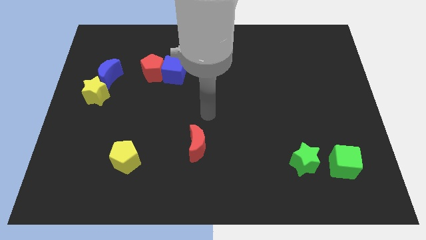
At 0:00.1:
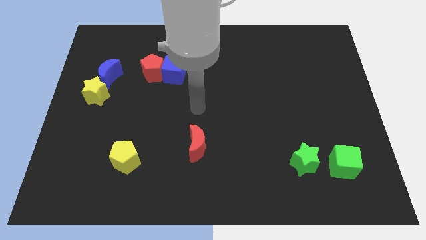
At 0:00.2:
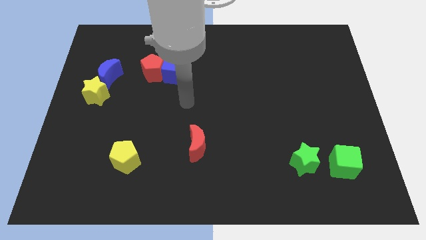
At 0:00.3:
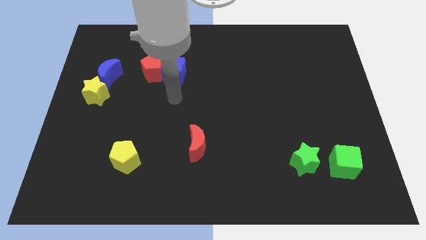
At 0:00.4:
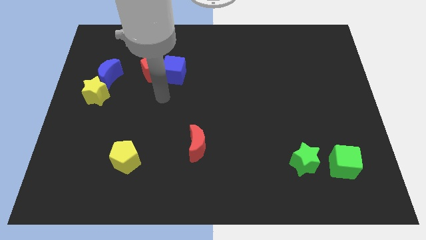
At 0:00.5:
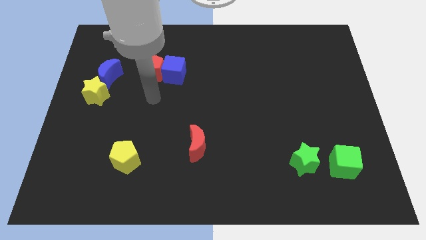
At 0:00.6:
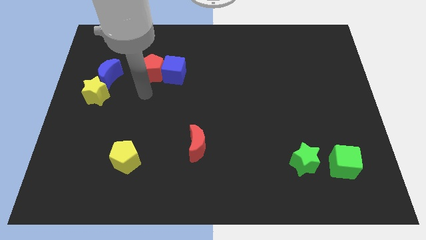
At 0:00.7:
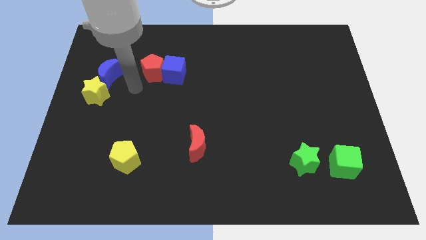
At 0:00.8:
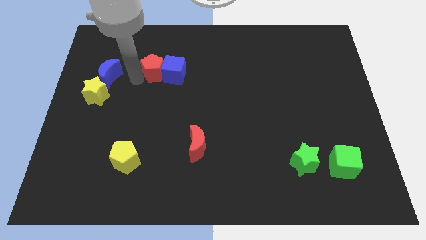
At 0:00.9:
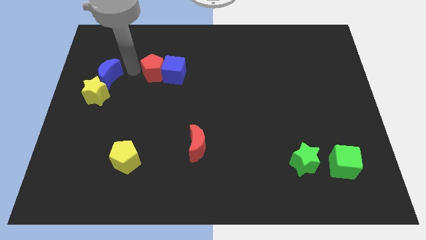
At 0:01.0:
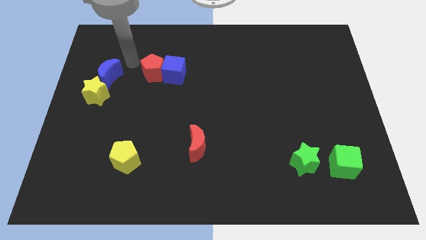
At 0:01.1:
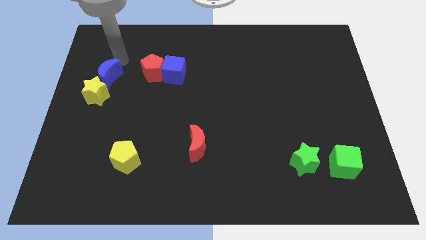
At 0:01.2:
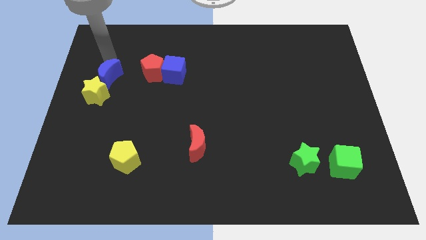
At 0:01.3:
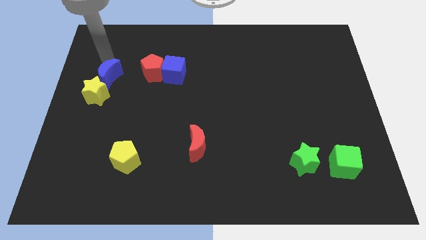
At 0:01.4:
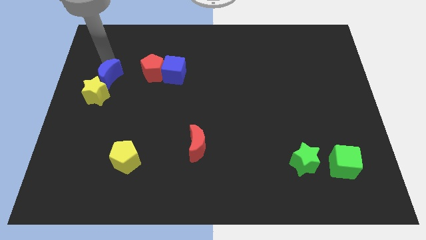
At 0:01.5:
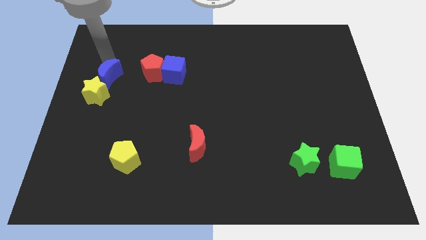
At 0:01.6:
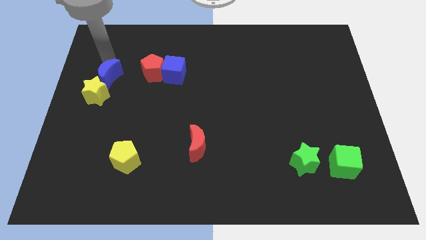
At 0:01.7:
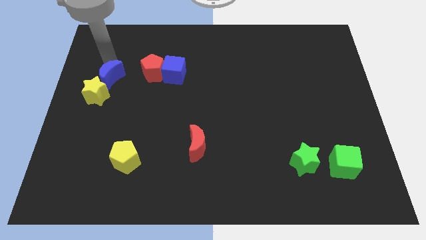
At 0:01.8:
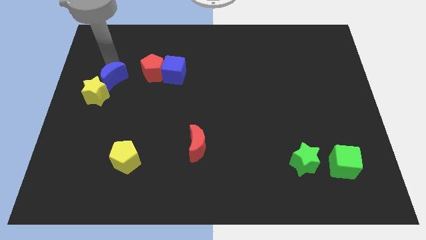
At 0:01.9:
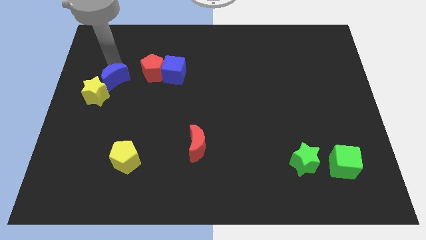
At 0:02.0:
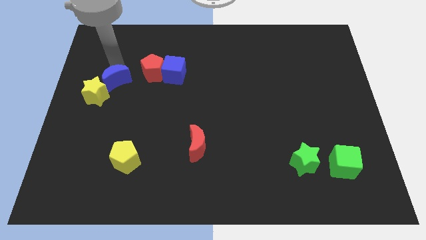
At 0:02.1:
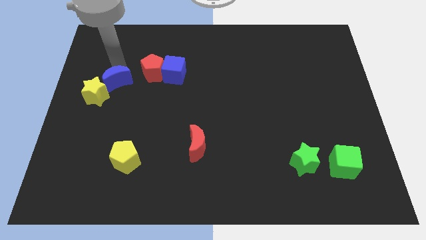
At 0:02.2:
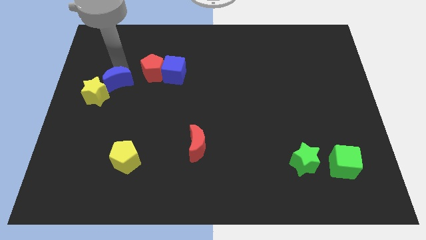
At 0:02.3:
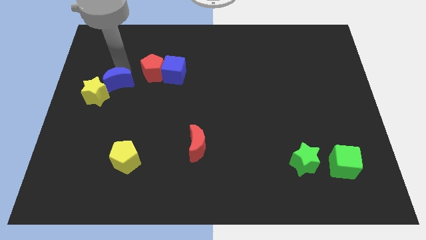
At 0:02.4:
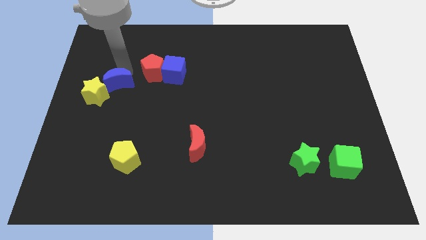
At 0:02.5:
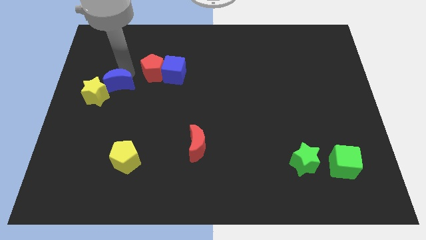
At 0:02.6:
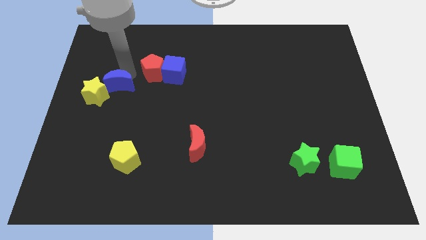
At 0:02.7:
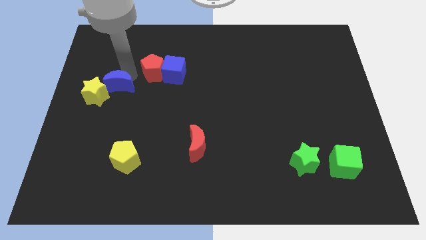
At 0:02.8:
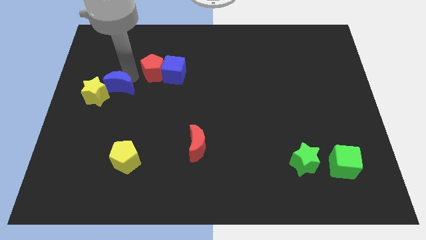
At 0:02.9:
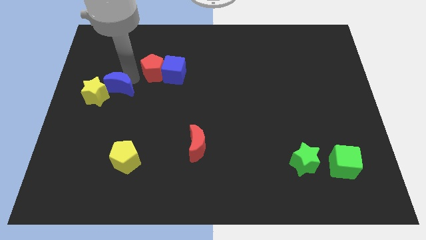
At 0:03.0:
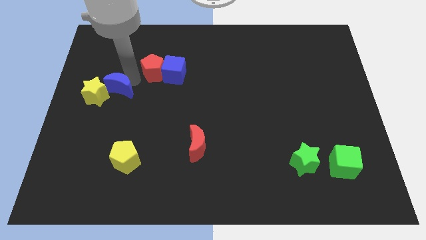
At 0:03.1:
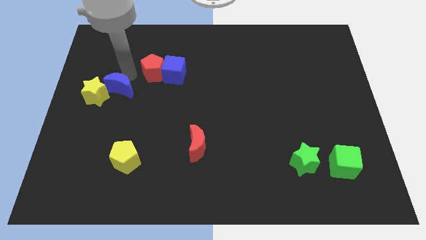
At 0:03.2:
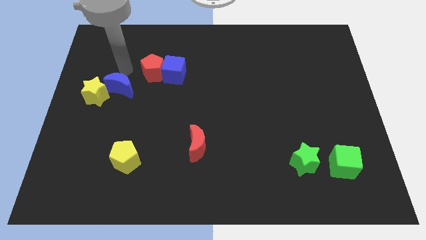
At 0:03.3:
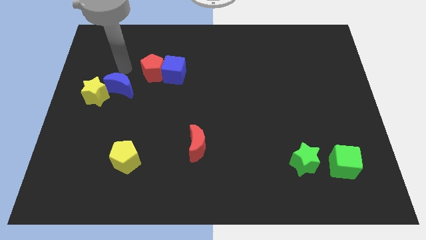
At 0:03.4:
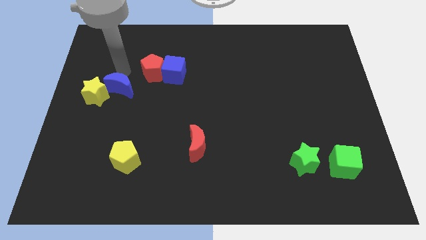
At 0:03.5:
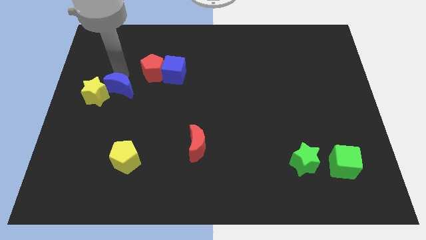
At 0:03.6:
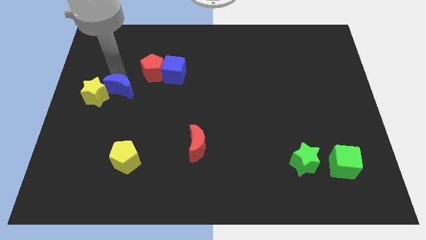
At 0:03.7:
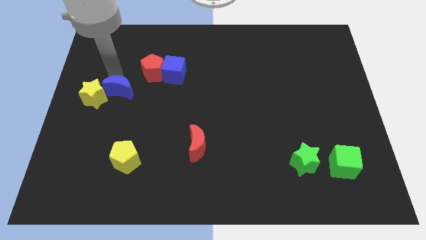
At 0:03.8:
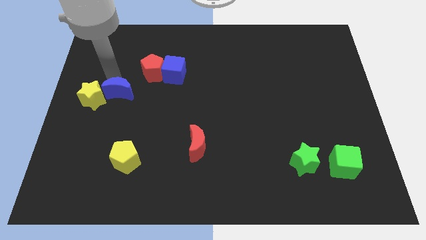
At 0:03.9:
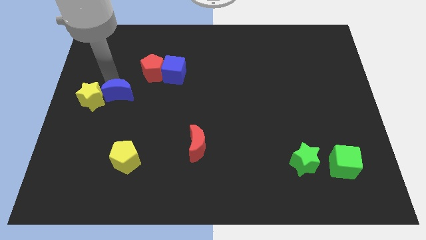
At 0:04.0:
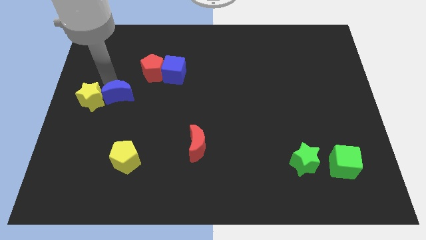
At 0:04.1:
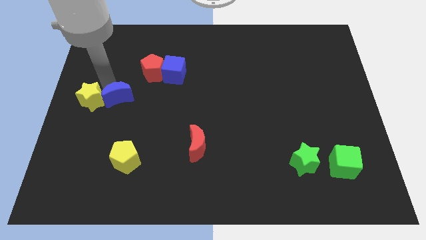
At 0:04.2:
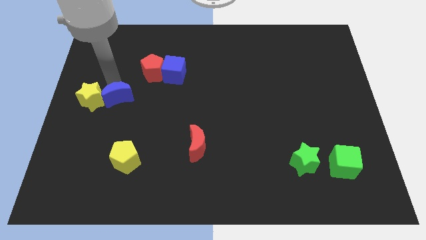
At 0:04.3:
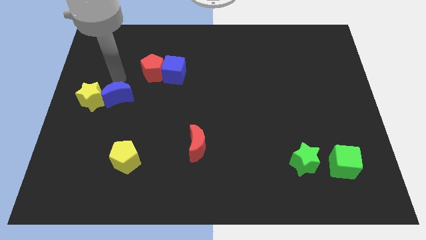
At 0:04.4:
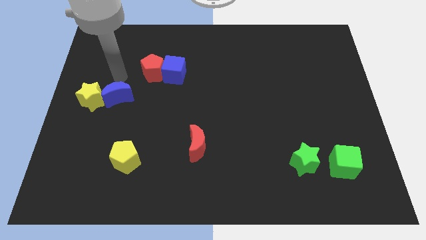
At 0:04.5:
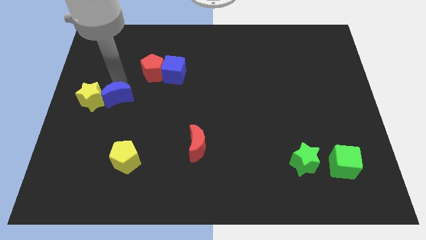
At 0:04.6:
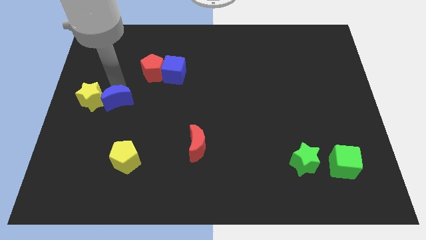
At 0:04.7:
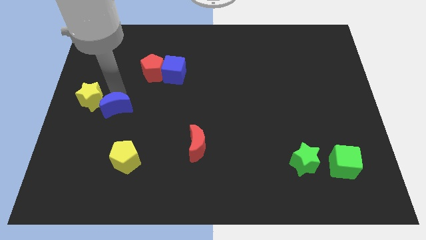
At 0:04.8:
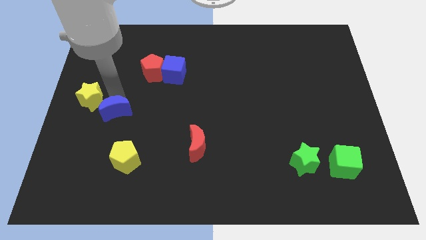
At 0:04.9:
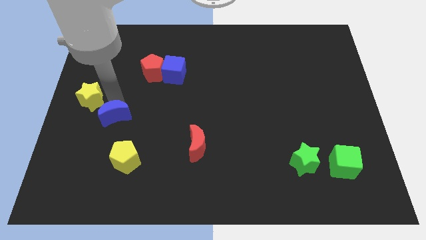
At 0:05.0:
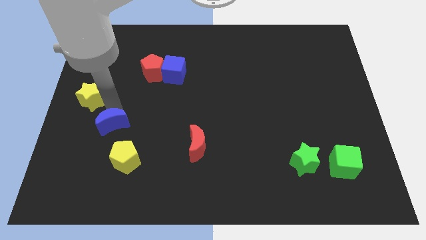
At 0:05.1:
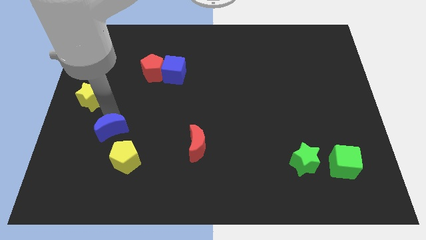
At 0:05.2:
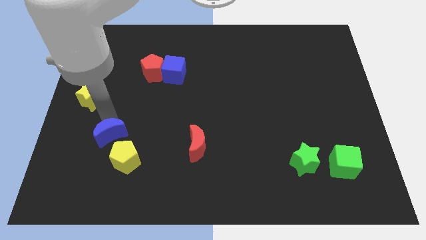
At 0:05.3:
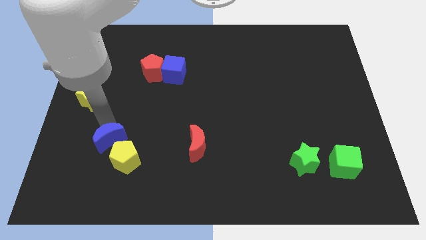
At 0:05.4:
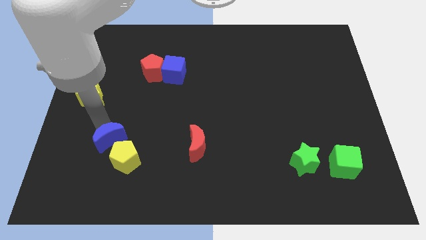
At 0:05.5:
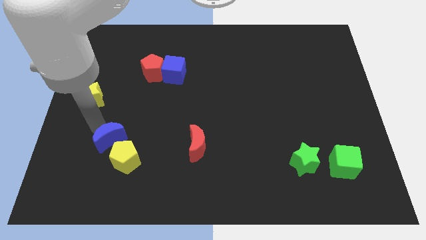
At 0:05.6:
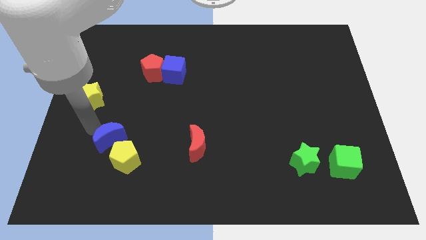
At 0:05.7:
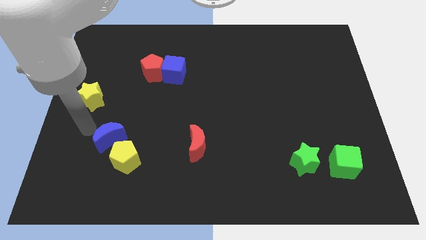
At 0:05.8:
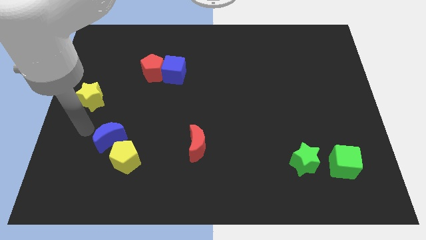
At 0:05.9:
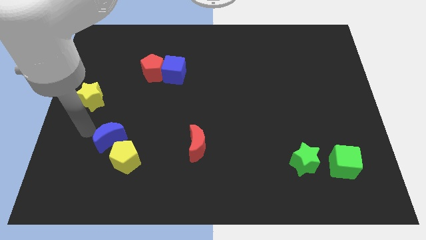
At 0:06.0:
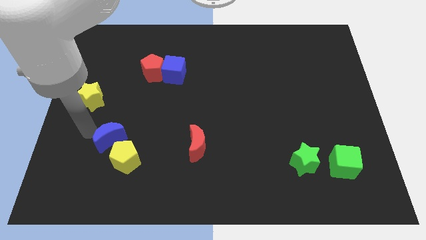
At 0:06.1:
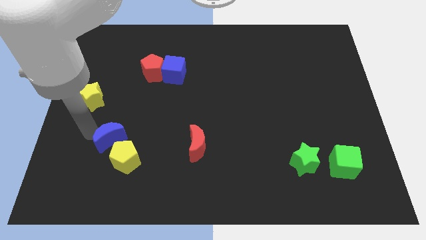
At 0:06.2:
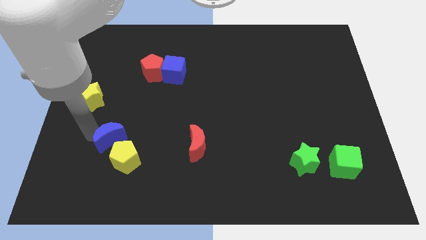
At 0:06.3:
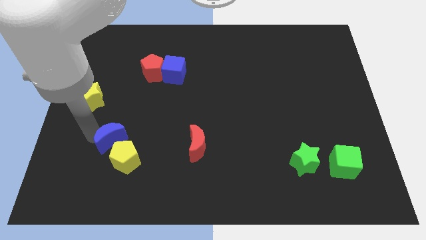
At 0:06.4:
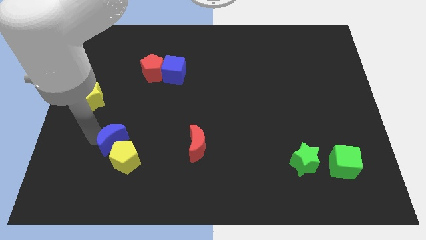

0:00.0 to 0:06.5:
put the blue moon next to the yellow pentagon

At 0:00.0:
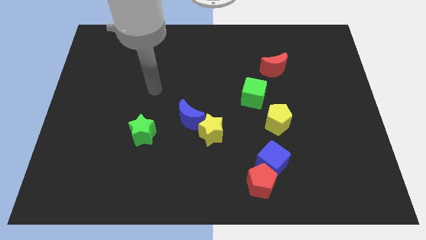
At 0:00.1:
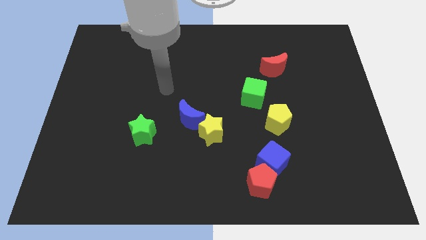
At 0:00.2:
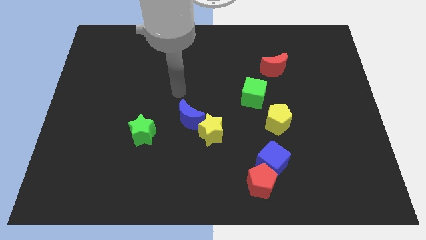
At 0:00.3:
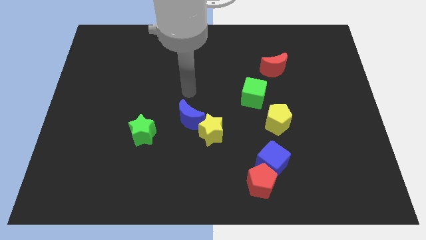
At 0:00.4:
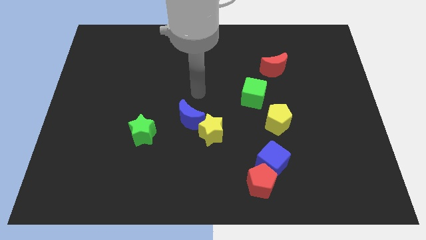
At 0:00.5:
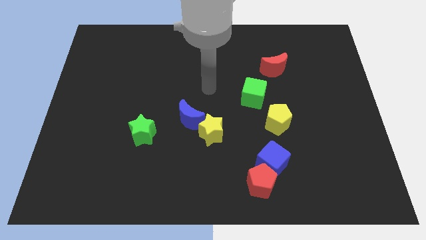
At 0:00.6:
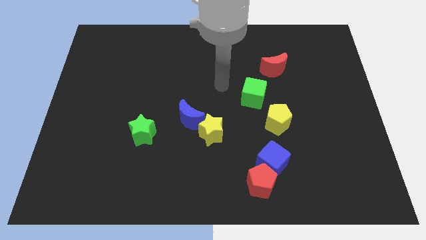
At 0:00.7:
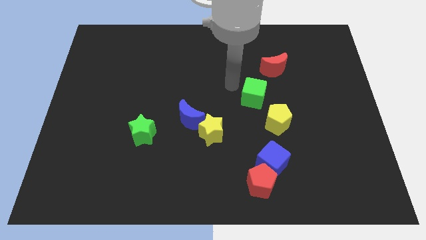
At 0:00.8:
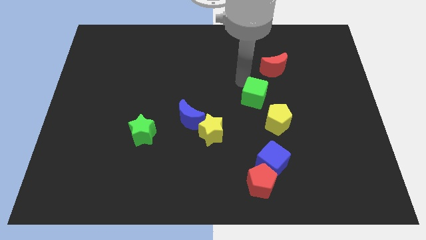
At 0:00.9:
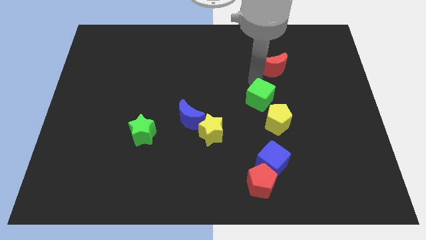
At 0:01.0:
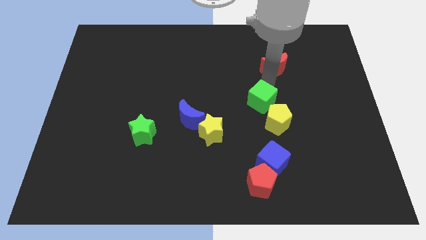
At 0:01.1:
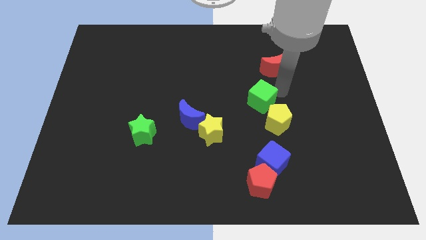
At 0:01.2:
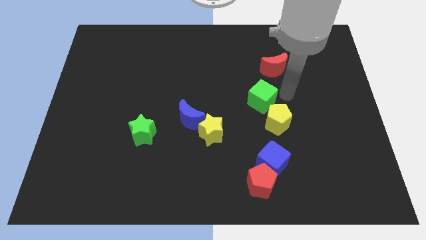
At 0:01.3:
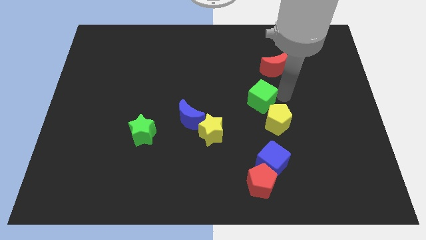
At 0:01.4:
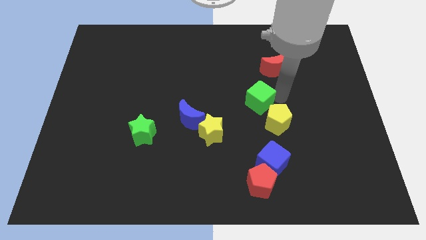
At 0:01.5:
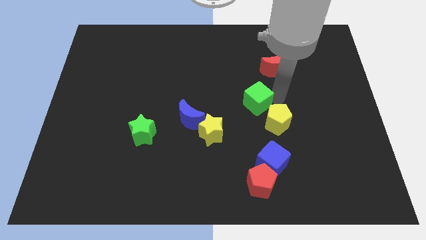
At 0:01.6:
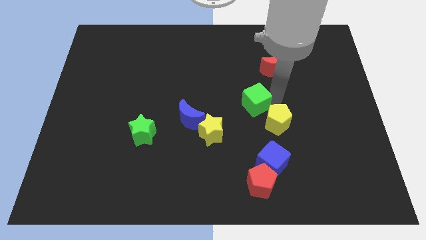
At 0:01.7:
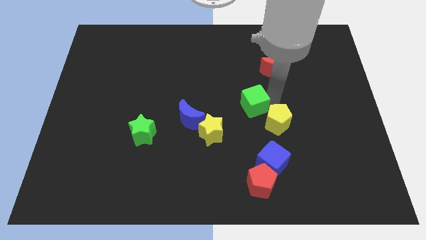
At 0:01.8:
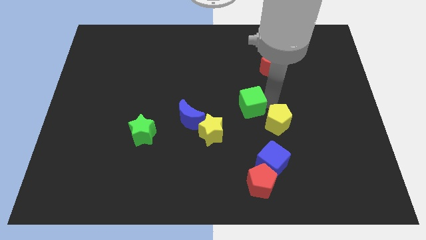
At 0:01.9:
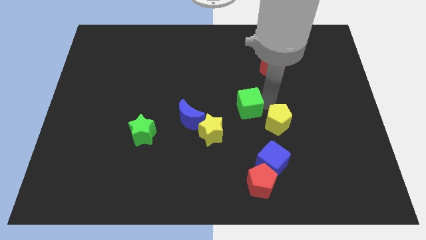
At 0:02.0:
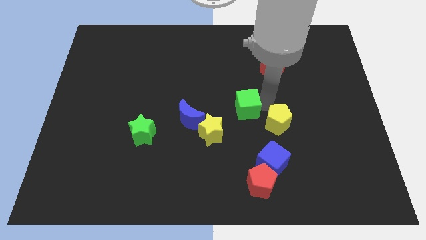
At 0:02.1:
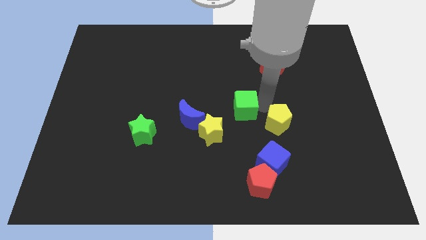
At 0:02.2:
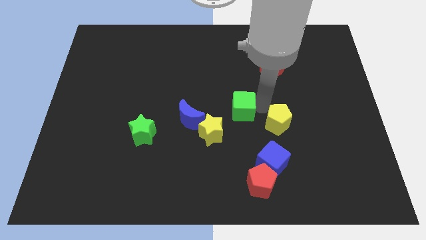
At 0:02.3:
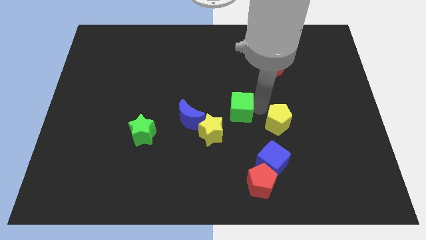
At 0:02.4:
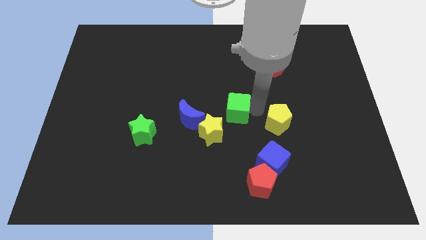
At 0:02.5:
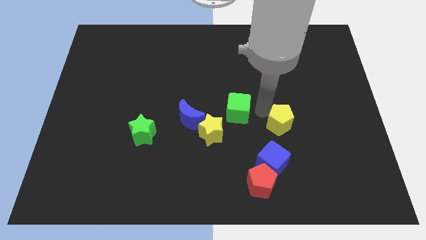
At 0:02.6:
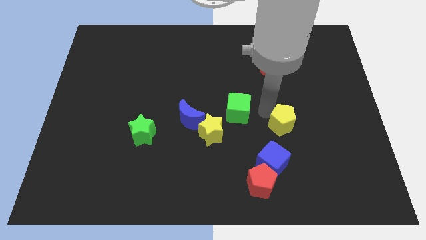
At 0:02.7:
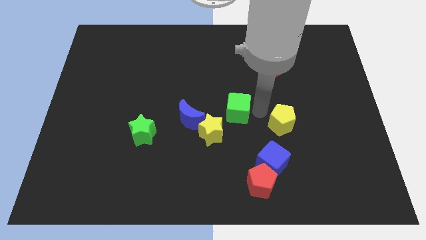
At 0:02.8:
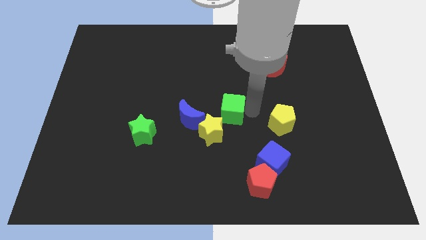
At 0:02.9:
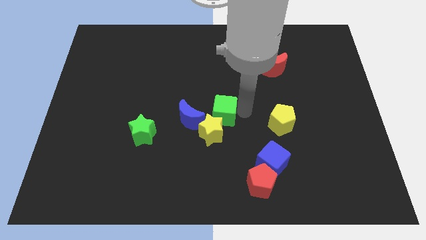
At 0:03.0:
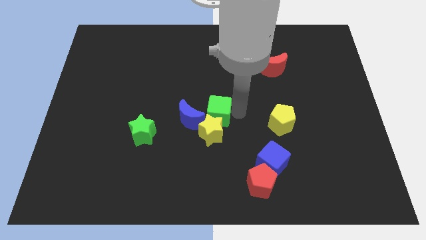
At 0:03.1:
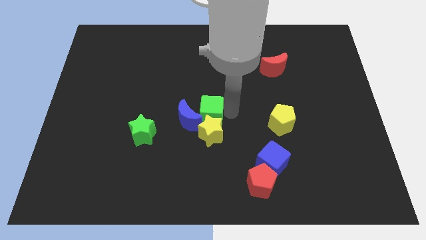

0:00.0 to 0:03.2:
push the green cube next to the blue moon
